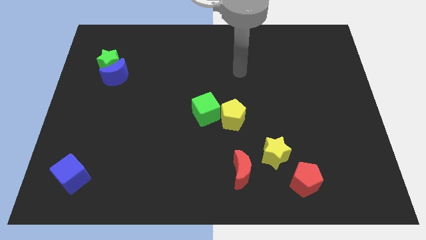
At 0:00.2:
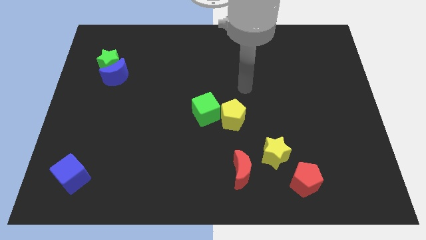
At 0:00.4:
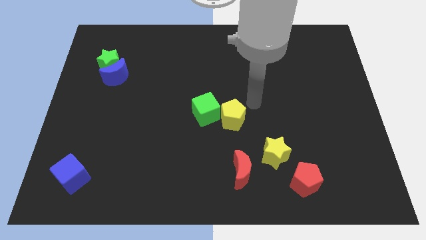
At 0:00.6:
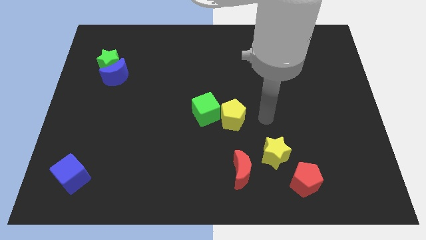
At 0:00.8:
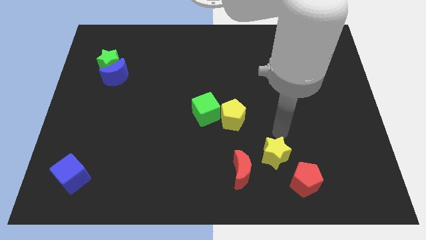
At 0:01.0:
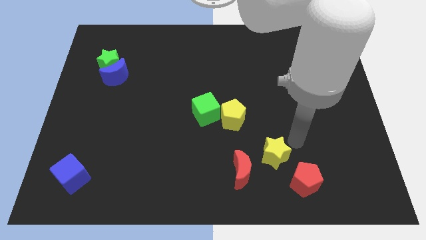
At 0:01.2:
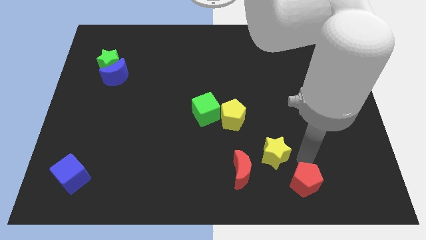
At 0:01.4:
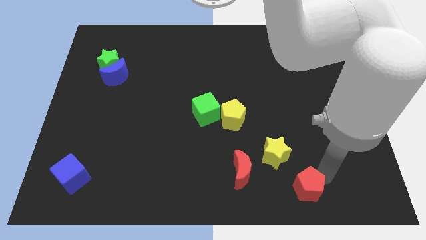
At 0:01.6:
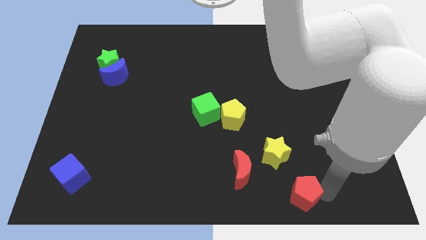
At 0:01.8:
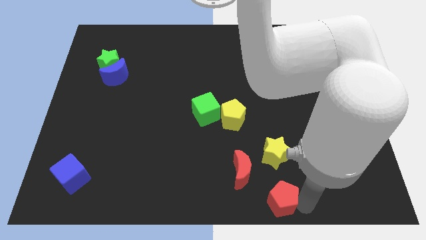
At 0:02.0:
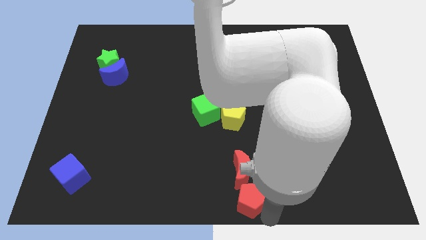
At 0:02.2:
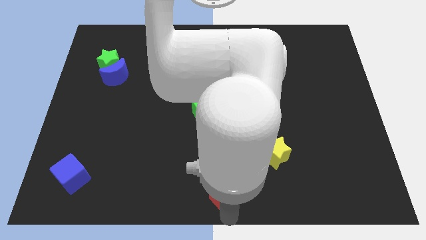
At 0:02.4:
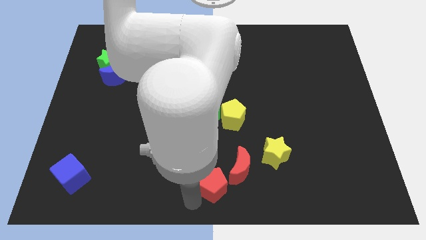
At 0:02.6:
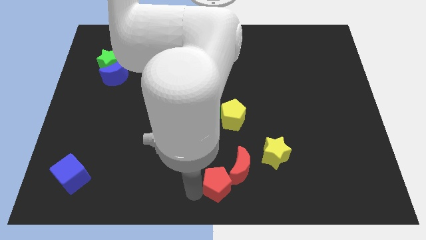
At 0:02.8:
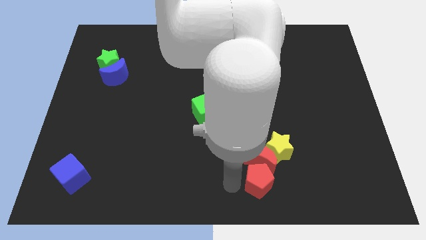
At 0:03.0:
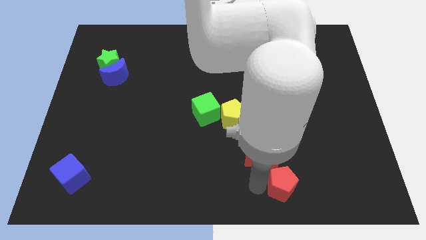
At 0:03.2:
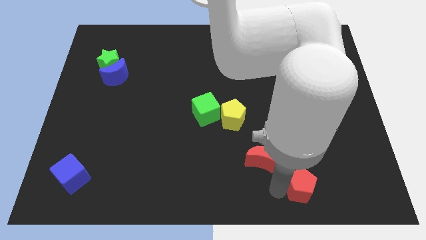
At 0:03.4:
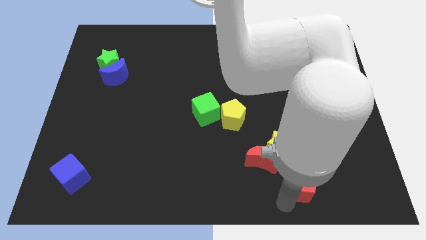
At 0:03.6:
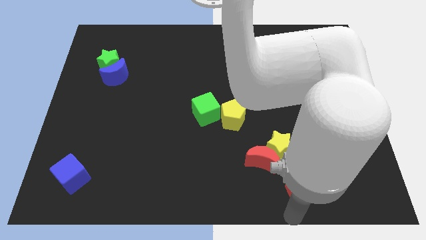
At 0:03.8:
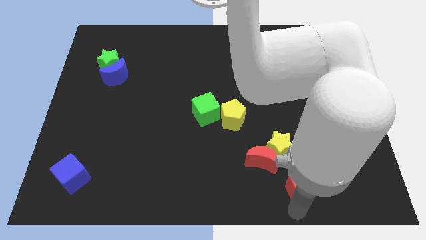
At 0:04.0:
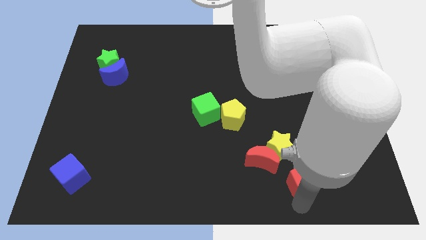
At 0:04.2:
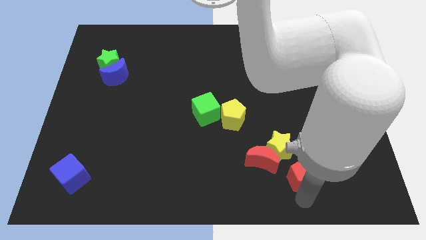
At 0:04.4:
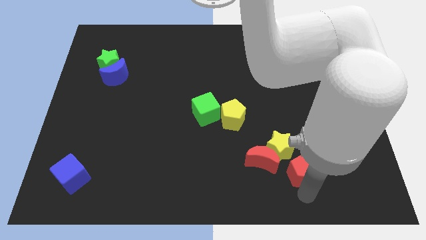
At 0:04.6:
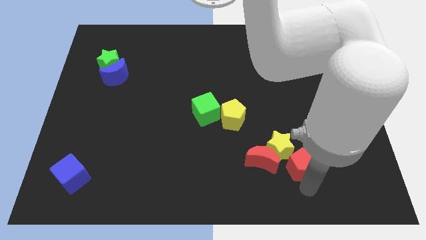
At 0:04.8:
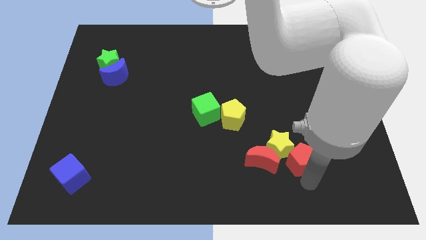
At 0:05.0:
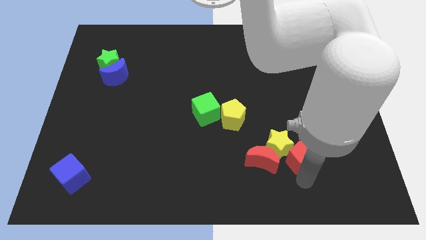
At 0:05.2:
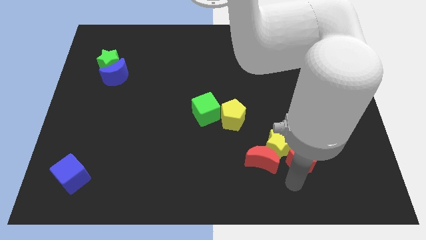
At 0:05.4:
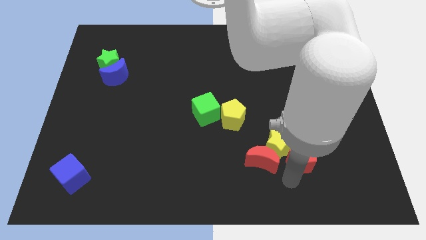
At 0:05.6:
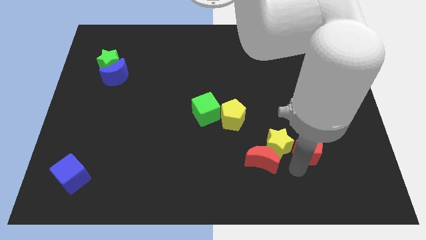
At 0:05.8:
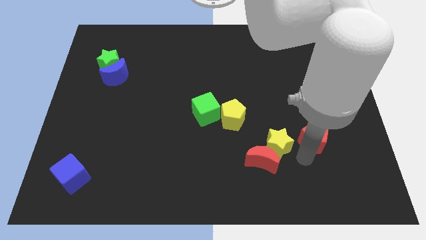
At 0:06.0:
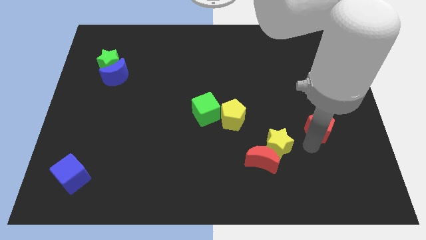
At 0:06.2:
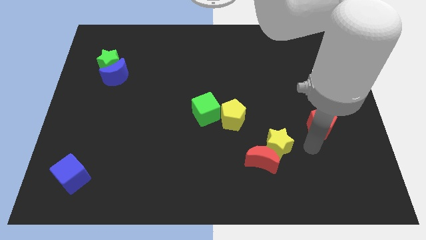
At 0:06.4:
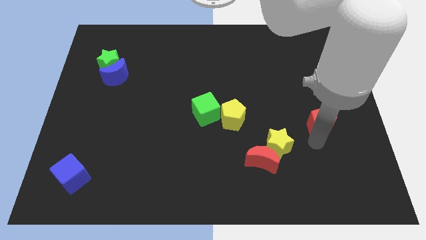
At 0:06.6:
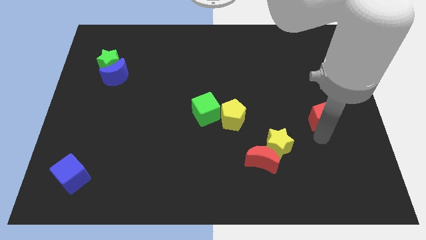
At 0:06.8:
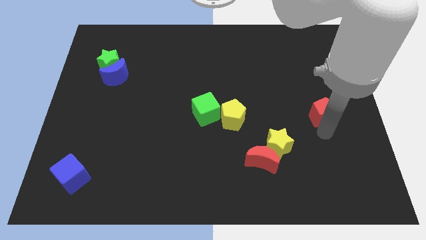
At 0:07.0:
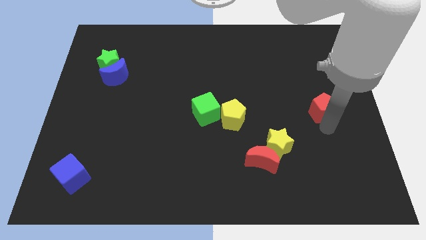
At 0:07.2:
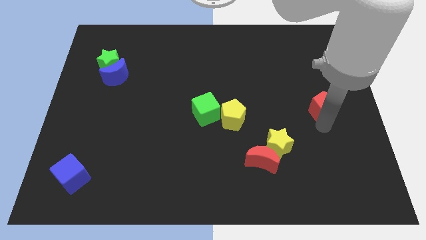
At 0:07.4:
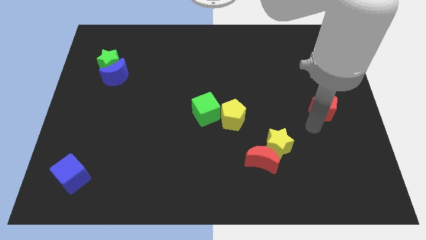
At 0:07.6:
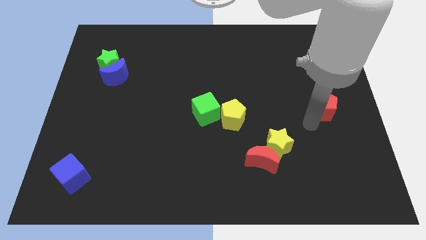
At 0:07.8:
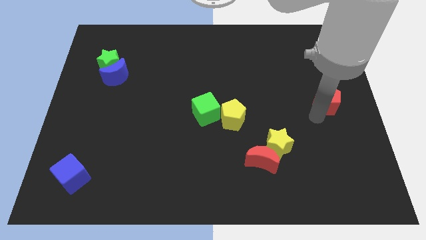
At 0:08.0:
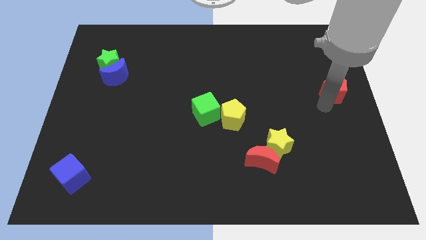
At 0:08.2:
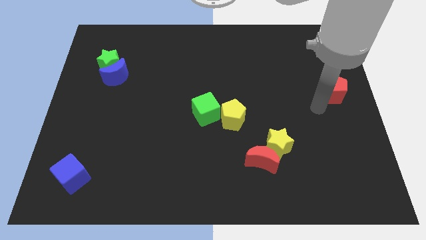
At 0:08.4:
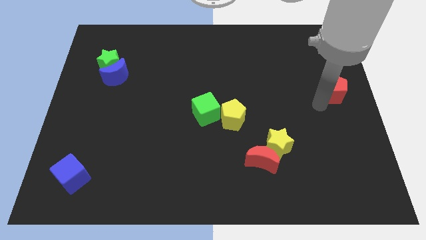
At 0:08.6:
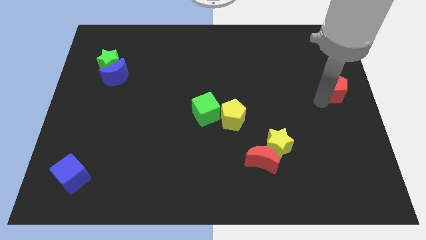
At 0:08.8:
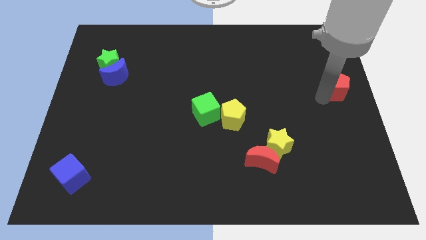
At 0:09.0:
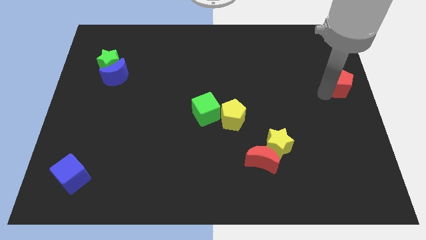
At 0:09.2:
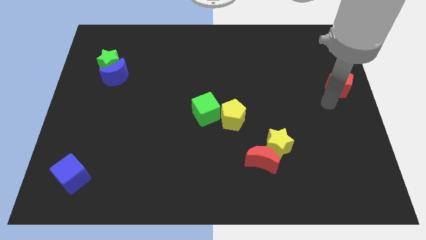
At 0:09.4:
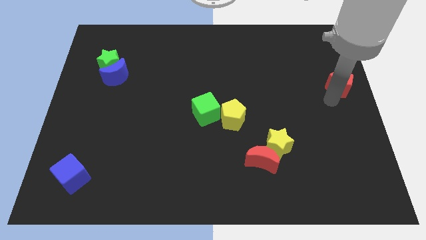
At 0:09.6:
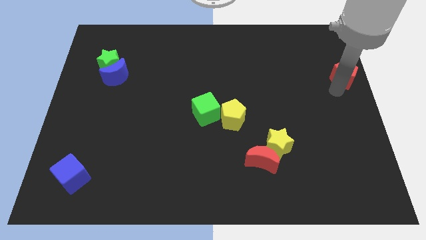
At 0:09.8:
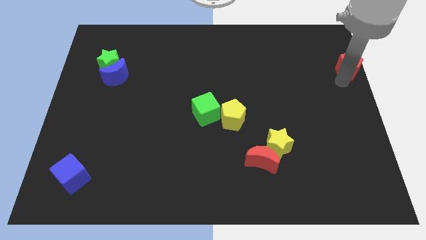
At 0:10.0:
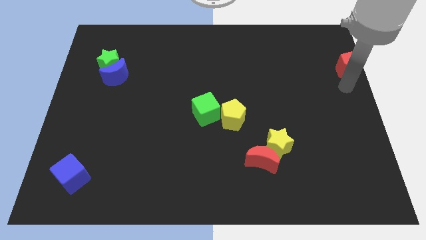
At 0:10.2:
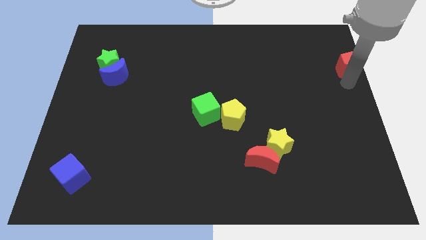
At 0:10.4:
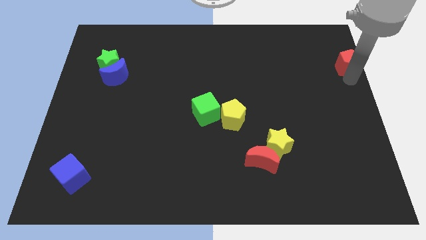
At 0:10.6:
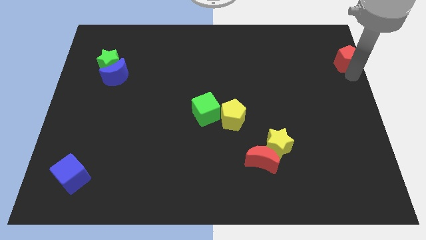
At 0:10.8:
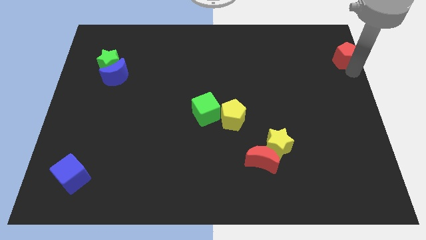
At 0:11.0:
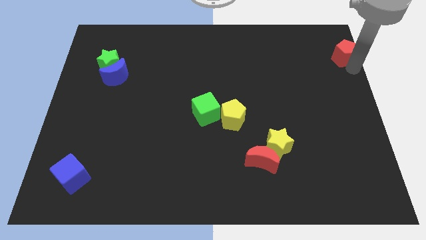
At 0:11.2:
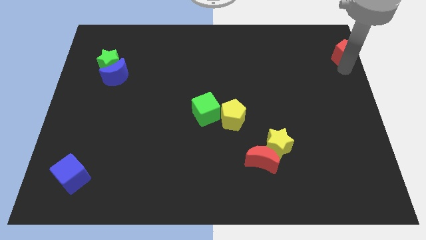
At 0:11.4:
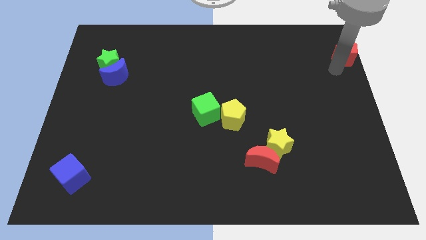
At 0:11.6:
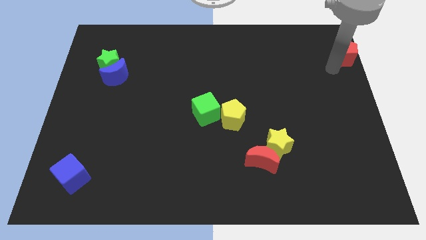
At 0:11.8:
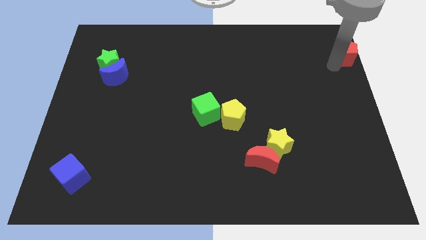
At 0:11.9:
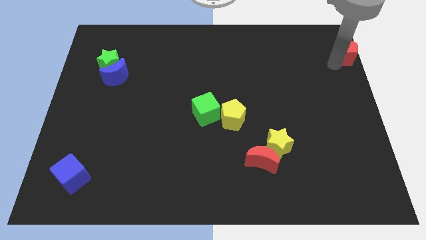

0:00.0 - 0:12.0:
put the red pentagon to the upper right corner

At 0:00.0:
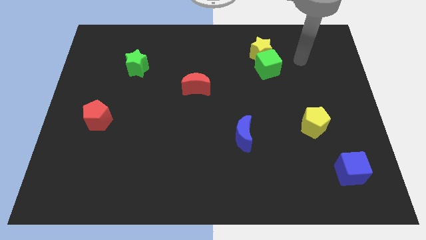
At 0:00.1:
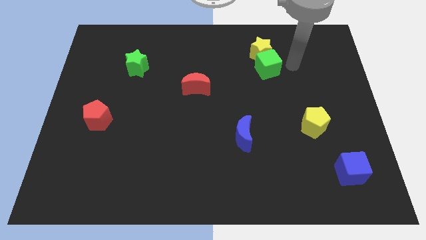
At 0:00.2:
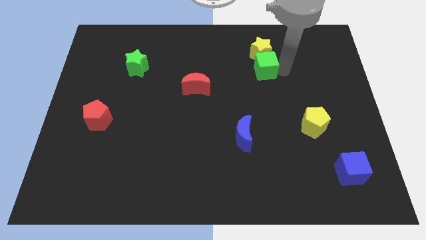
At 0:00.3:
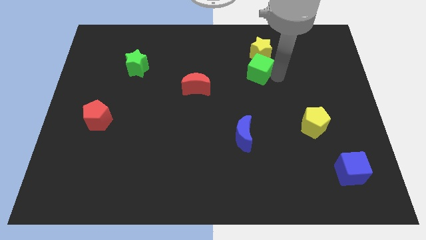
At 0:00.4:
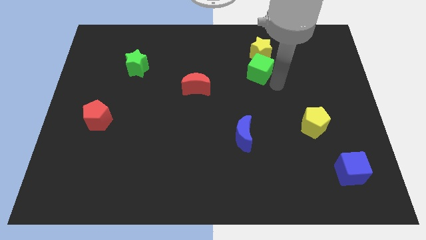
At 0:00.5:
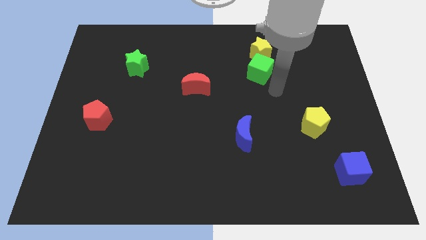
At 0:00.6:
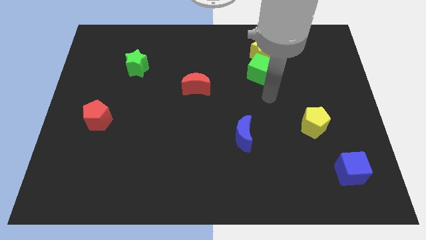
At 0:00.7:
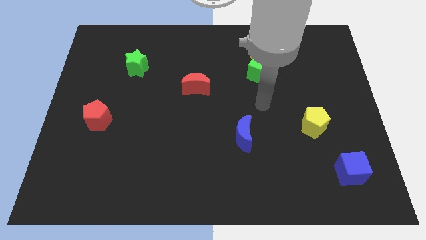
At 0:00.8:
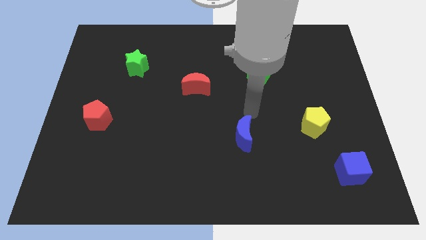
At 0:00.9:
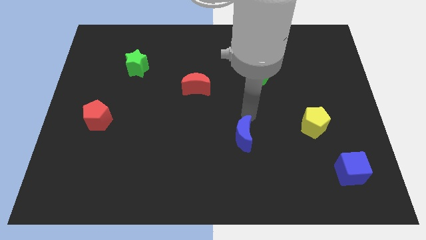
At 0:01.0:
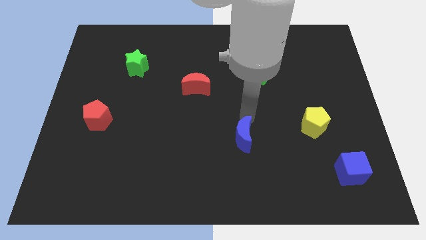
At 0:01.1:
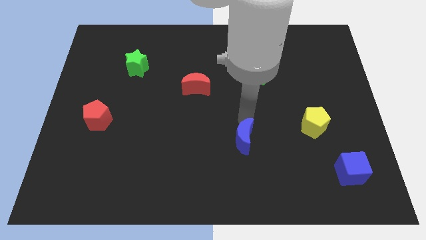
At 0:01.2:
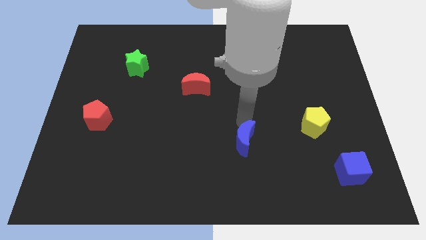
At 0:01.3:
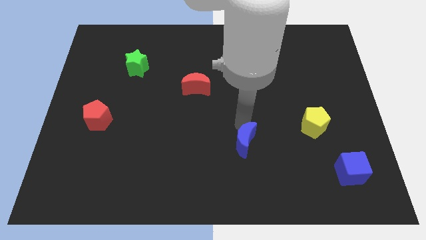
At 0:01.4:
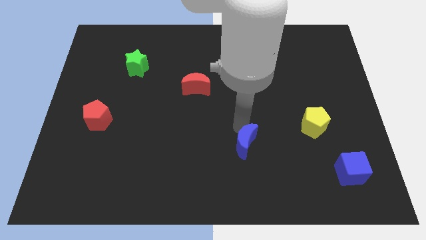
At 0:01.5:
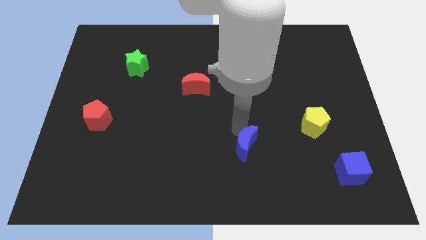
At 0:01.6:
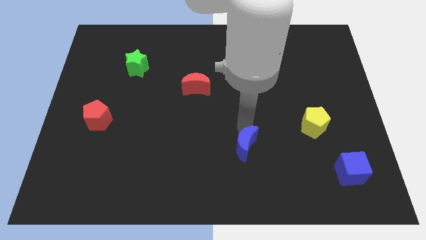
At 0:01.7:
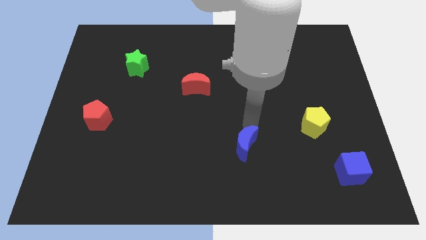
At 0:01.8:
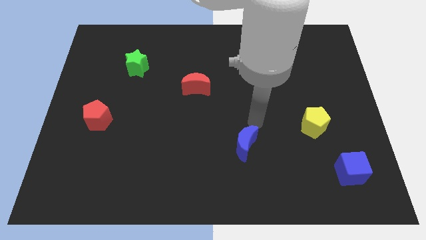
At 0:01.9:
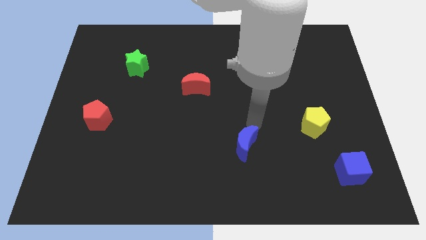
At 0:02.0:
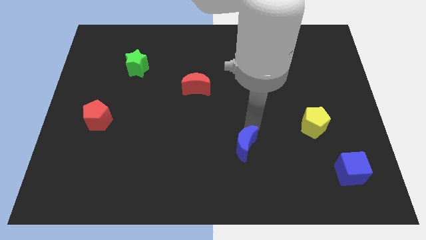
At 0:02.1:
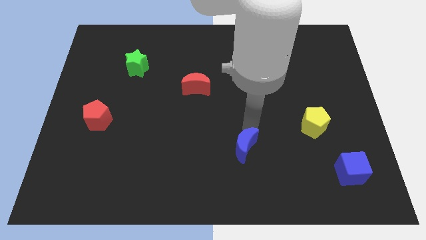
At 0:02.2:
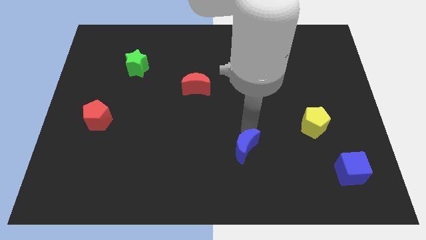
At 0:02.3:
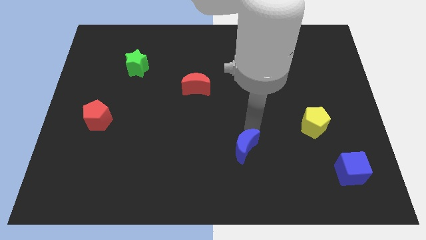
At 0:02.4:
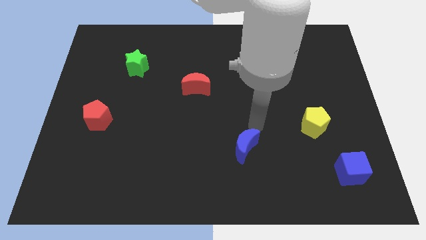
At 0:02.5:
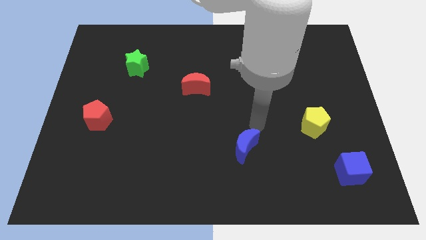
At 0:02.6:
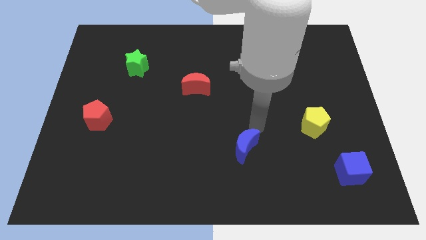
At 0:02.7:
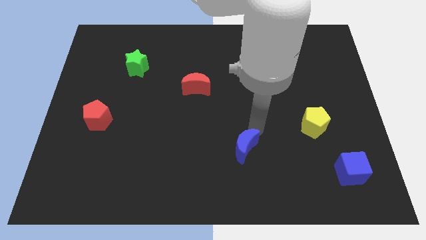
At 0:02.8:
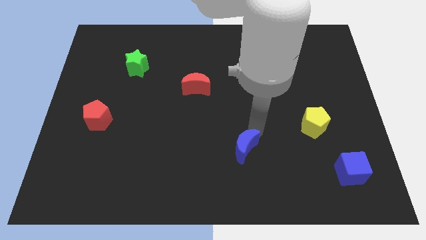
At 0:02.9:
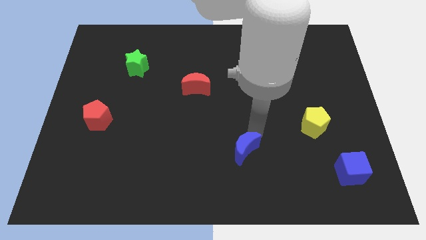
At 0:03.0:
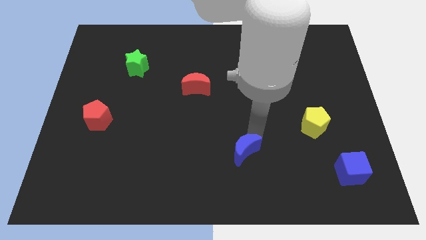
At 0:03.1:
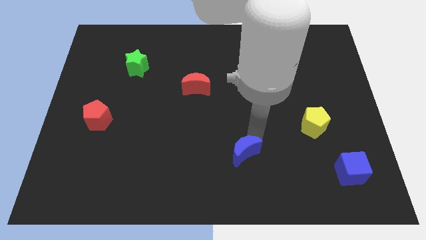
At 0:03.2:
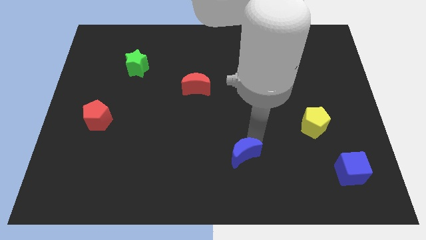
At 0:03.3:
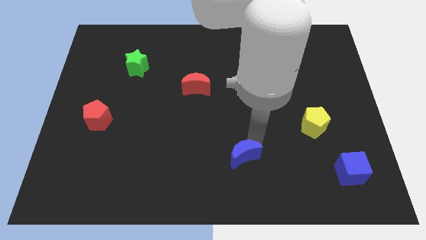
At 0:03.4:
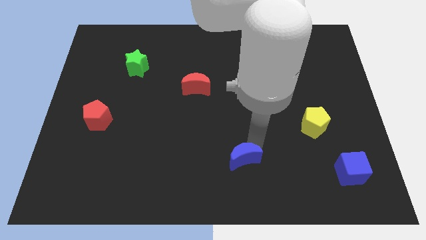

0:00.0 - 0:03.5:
push the blue moon to the bottom side
